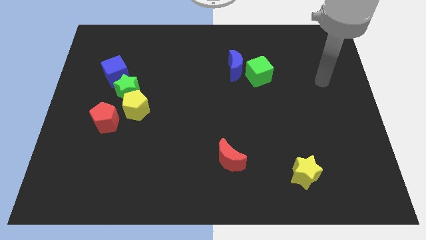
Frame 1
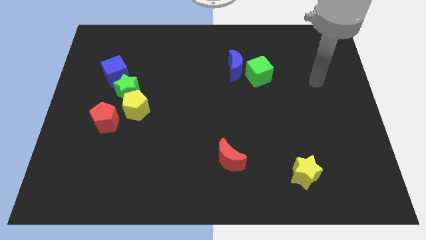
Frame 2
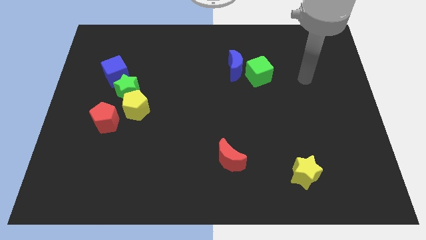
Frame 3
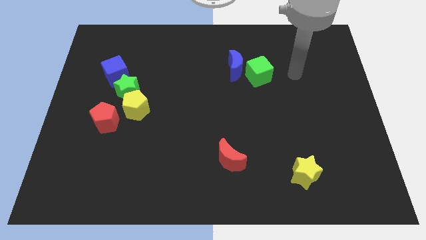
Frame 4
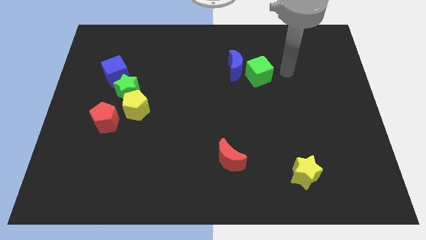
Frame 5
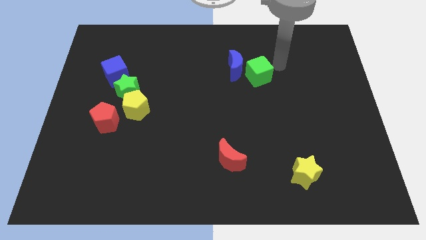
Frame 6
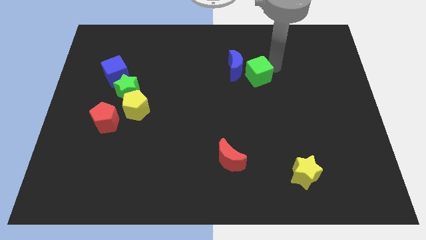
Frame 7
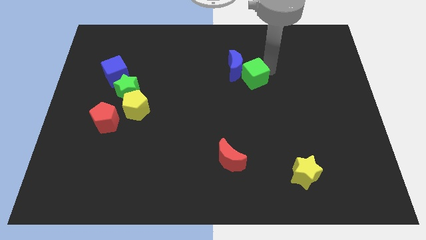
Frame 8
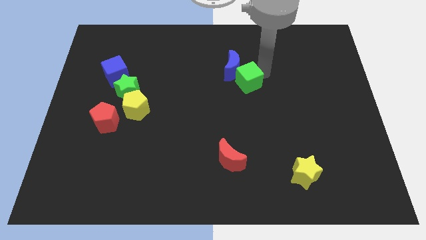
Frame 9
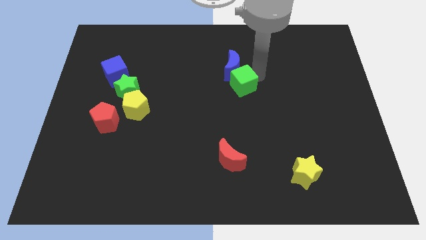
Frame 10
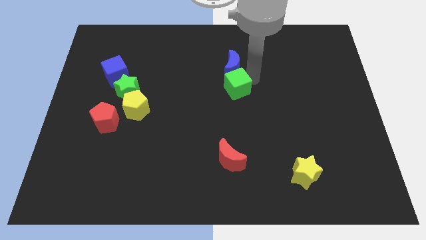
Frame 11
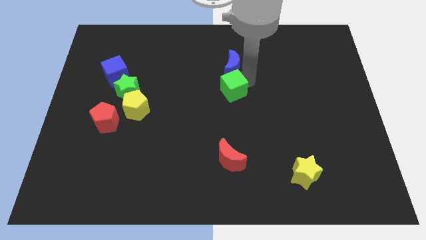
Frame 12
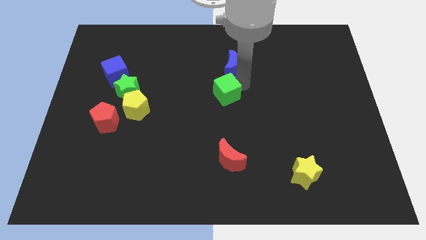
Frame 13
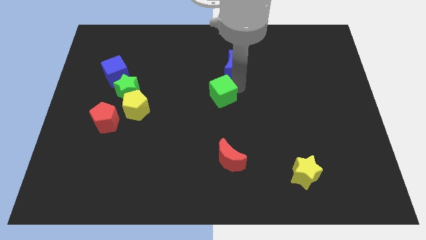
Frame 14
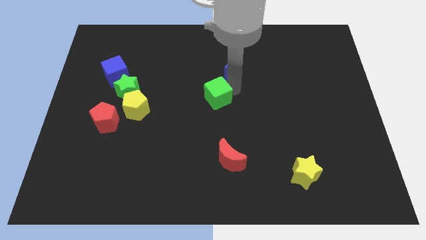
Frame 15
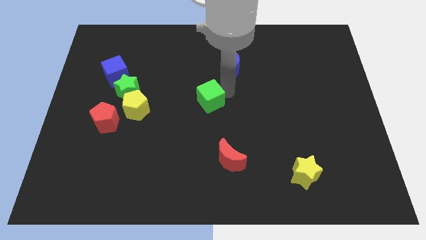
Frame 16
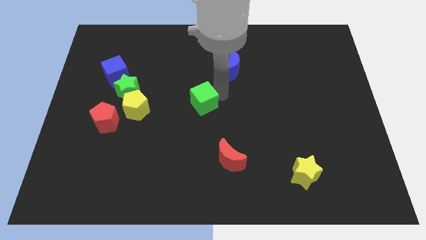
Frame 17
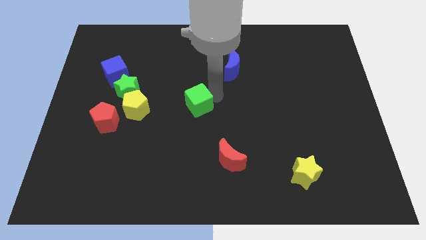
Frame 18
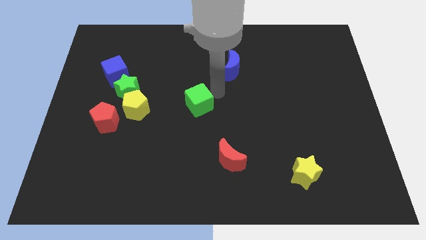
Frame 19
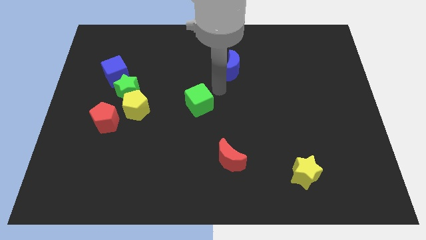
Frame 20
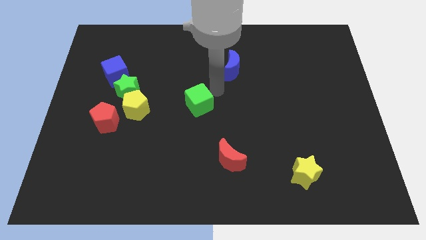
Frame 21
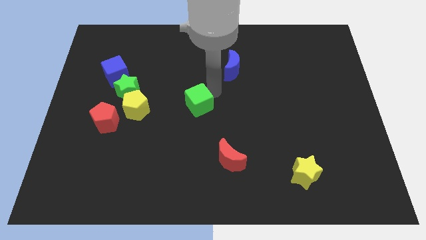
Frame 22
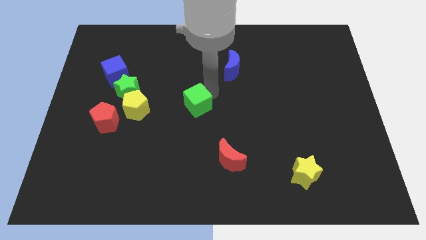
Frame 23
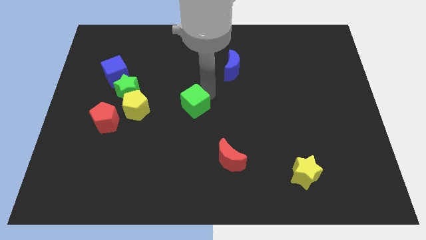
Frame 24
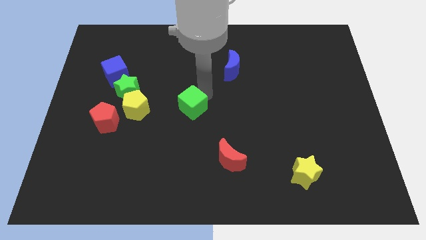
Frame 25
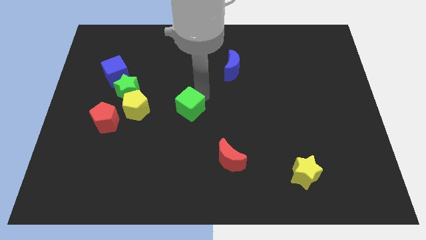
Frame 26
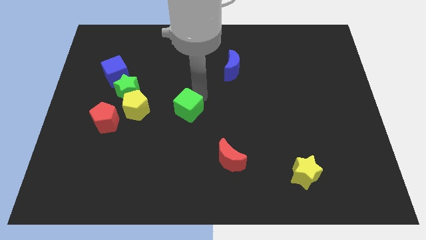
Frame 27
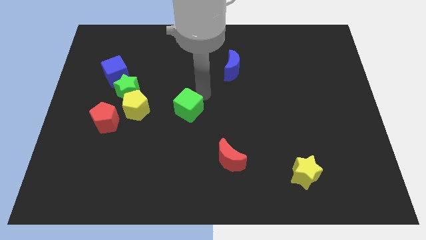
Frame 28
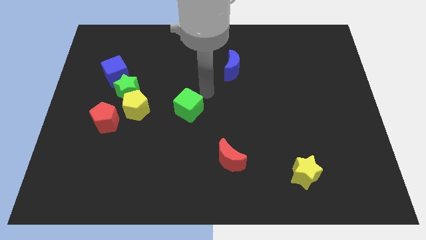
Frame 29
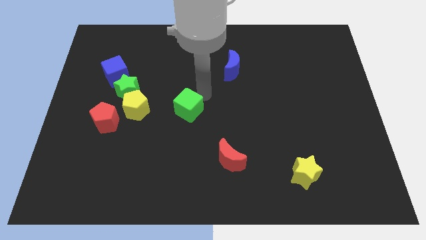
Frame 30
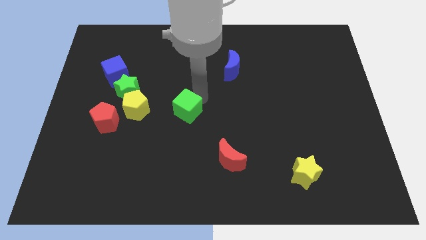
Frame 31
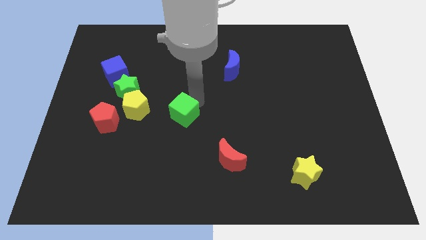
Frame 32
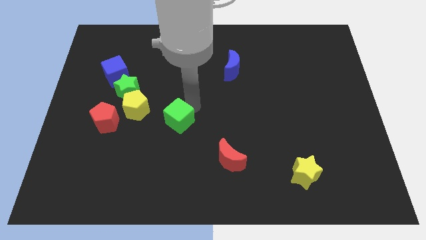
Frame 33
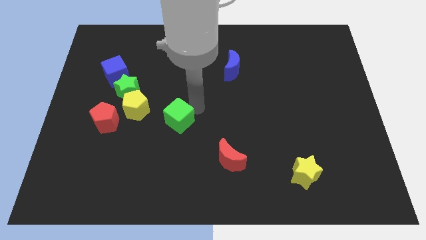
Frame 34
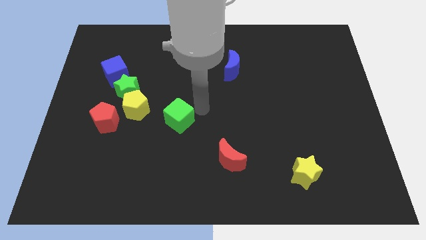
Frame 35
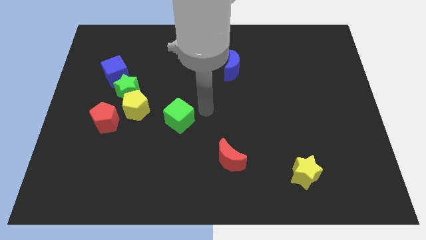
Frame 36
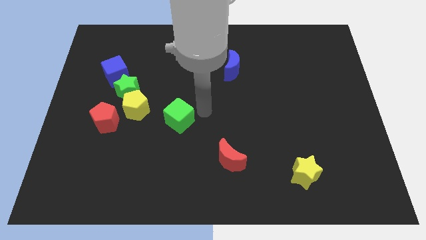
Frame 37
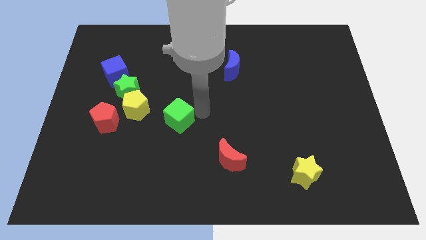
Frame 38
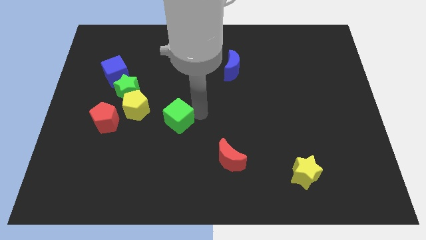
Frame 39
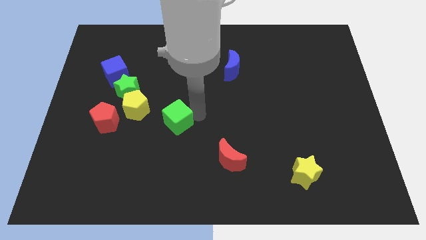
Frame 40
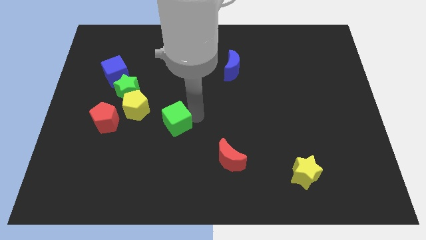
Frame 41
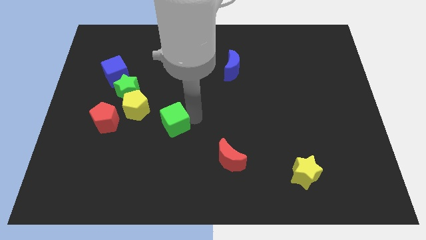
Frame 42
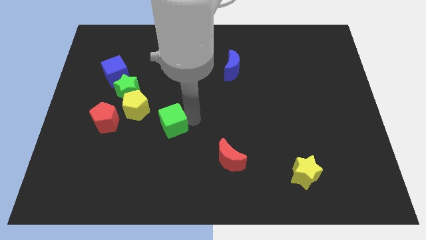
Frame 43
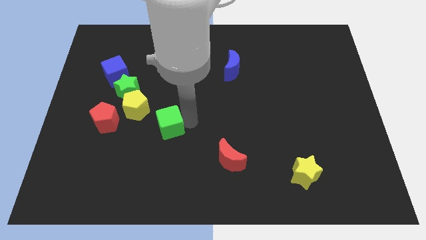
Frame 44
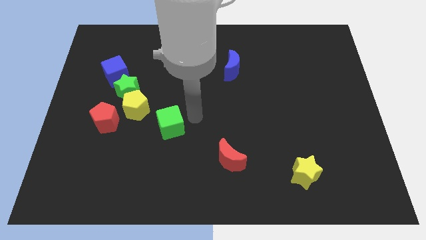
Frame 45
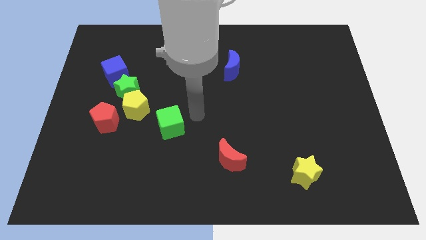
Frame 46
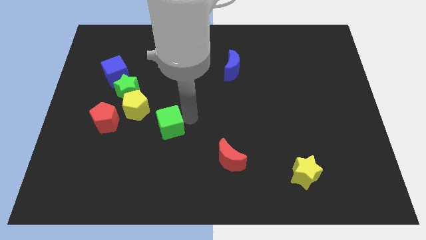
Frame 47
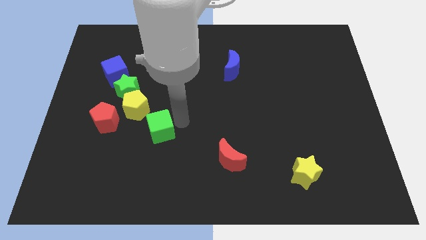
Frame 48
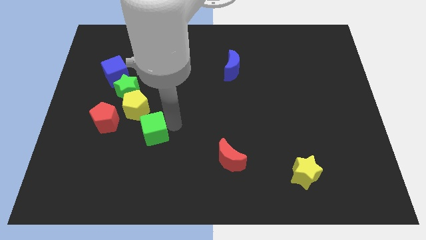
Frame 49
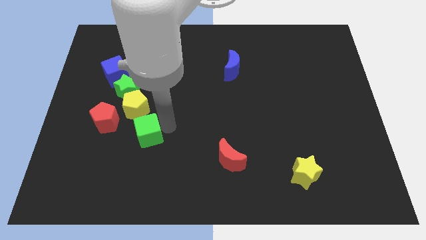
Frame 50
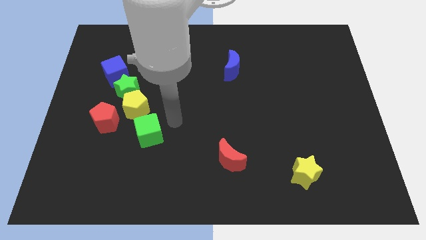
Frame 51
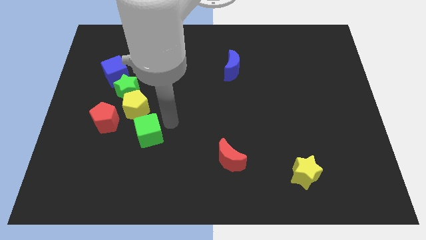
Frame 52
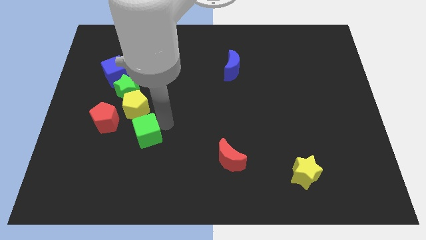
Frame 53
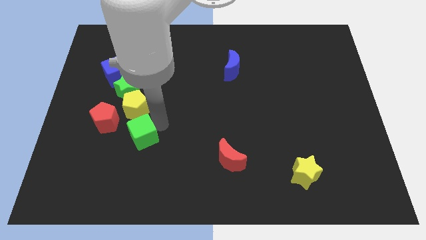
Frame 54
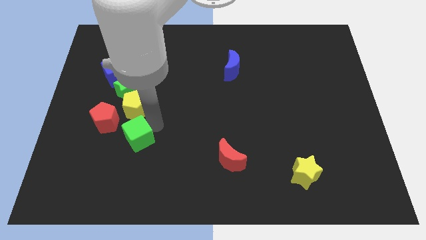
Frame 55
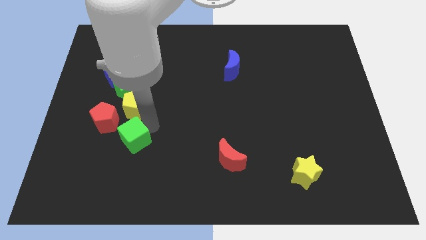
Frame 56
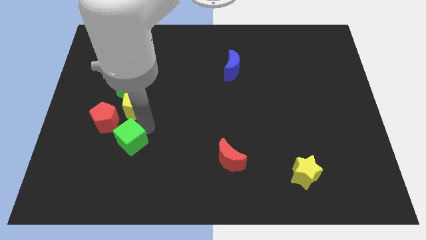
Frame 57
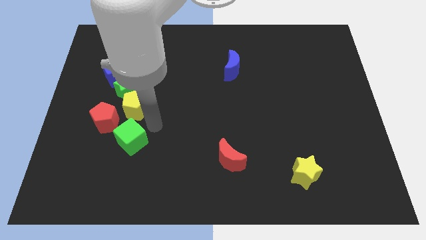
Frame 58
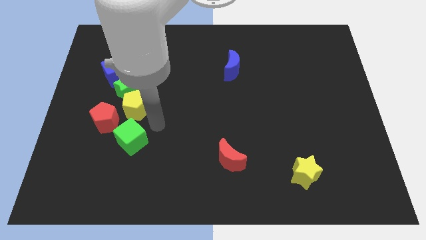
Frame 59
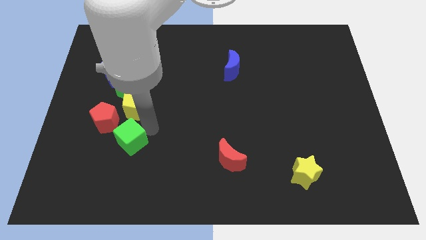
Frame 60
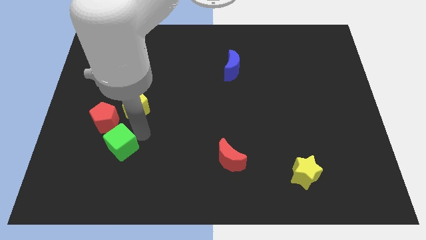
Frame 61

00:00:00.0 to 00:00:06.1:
slide the green cube to the bottom side of the red pentagon

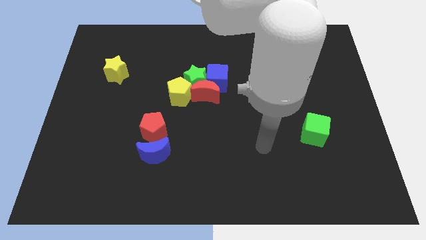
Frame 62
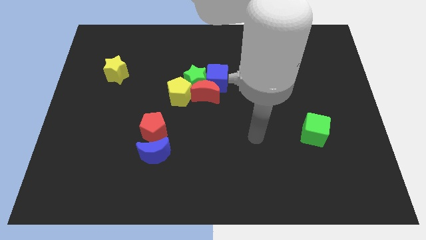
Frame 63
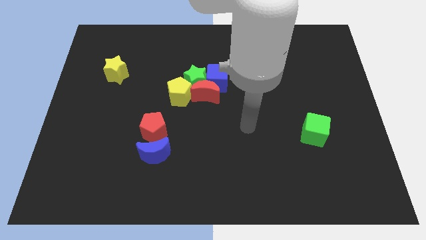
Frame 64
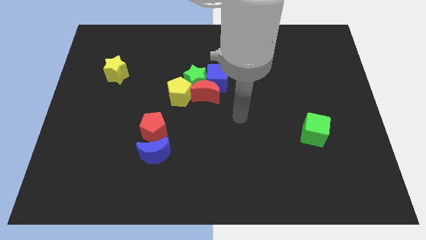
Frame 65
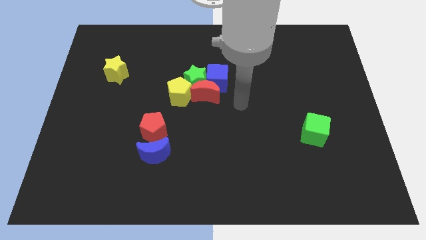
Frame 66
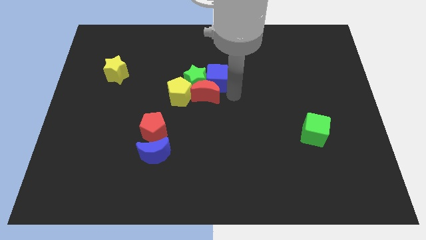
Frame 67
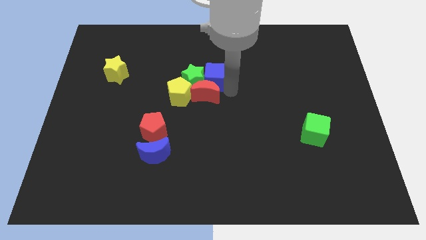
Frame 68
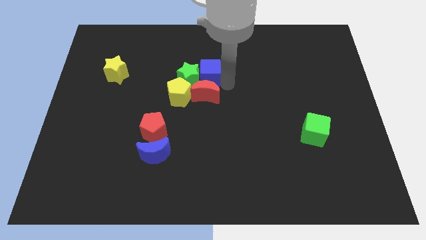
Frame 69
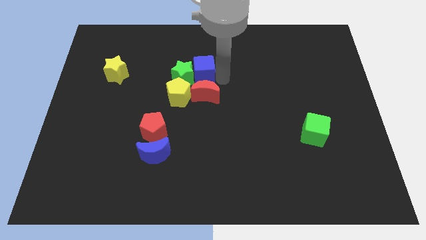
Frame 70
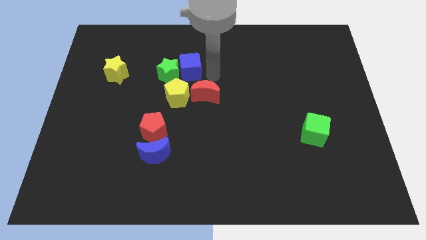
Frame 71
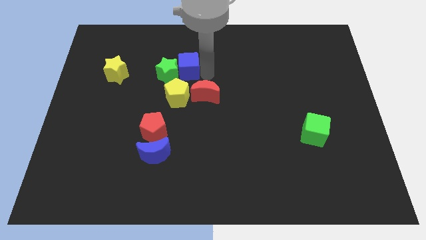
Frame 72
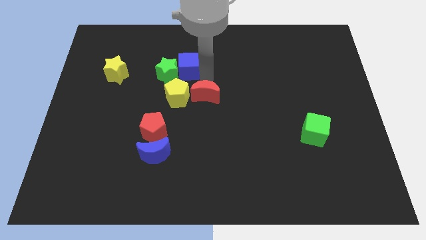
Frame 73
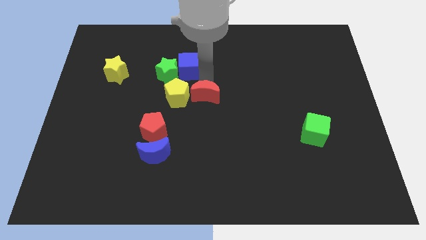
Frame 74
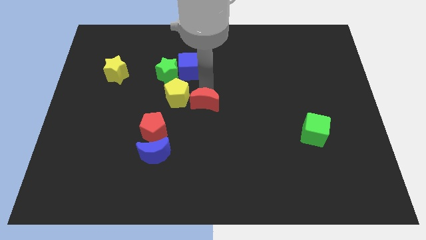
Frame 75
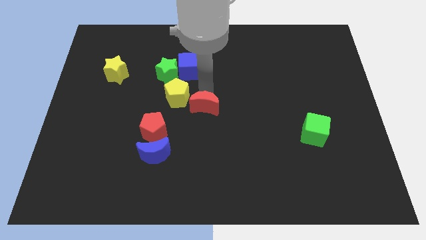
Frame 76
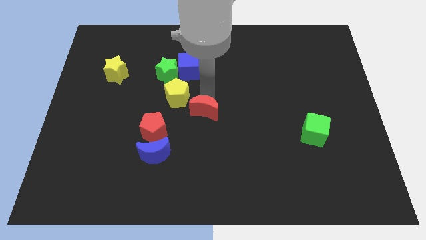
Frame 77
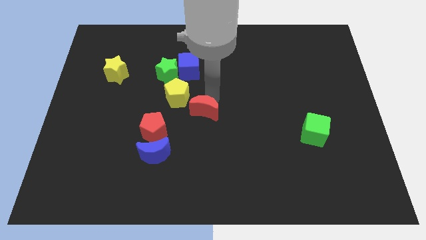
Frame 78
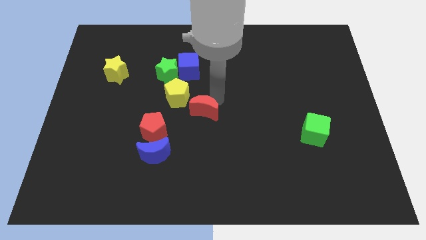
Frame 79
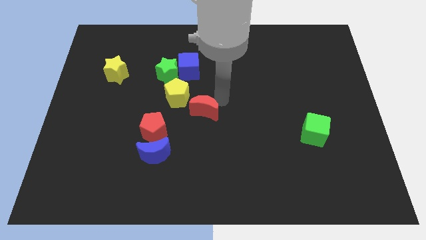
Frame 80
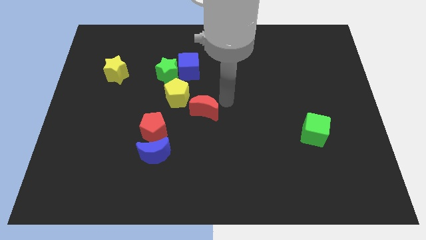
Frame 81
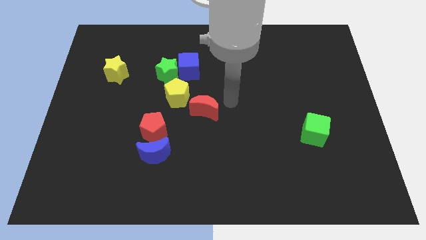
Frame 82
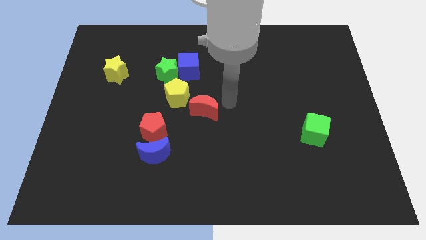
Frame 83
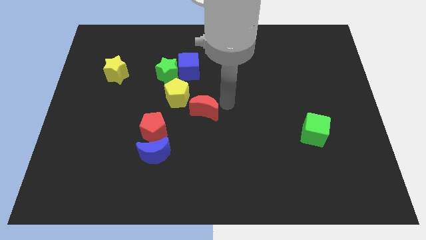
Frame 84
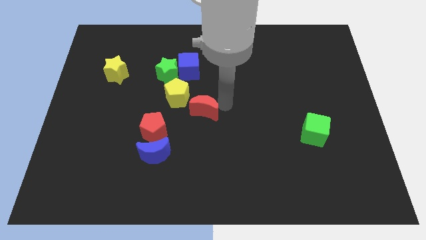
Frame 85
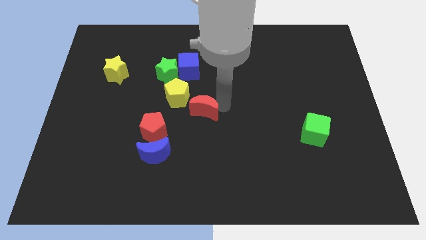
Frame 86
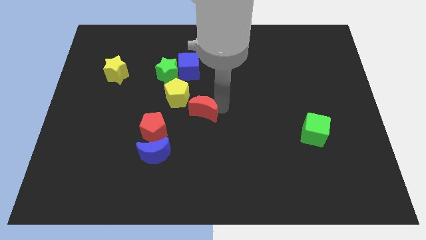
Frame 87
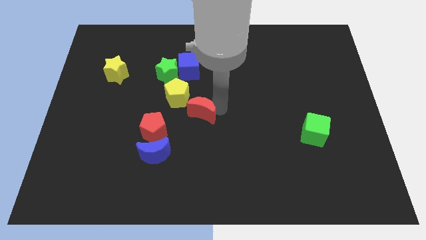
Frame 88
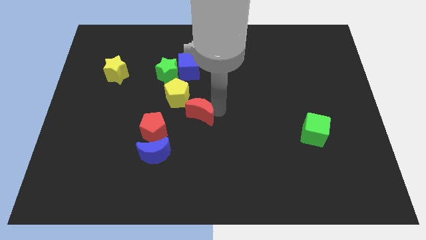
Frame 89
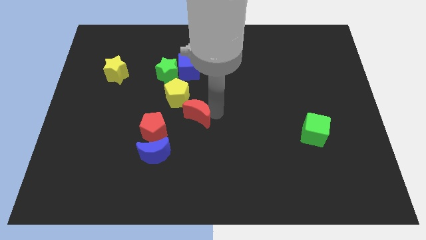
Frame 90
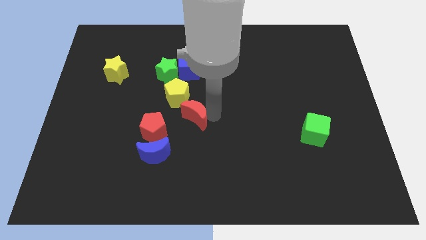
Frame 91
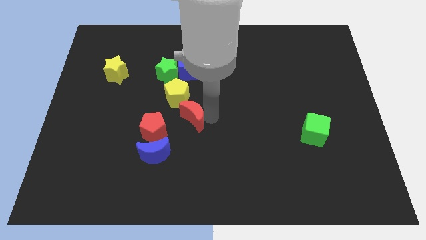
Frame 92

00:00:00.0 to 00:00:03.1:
move the red moon to the top right of the blue moon
